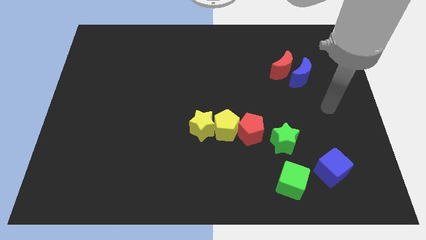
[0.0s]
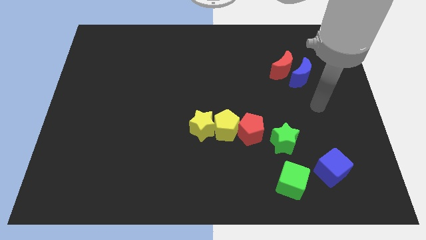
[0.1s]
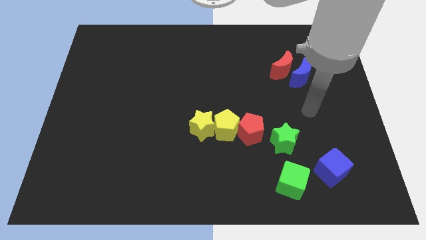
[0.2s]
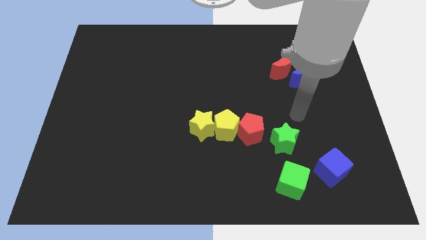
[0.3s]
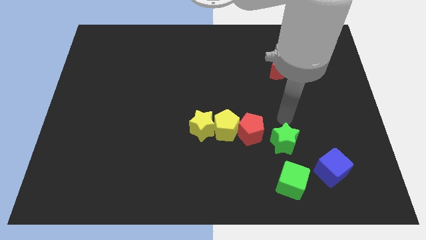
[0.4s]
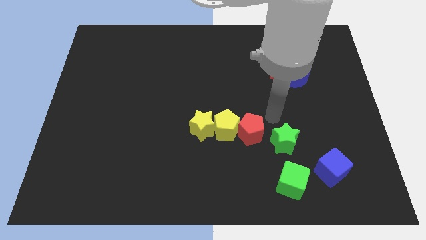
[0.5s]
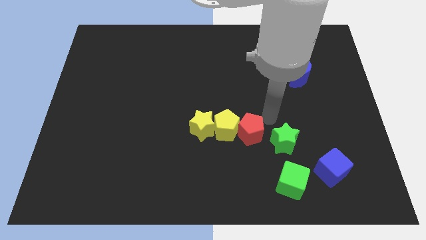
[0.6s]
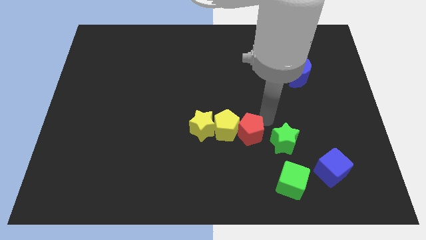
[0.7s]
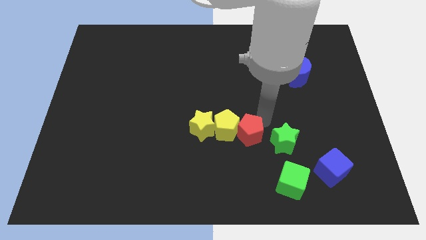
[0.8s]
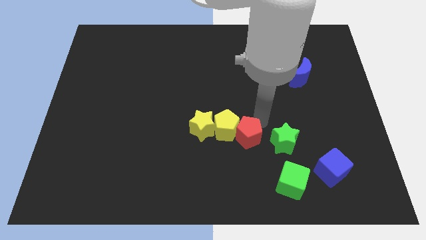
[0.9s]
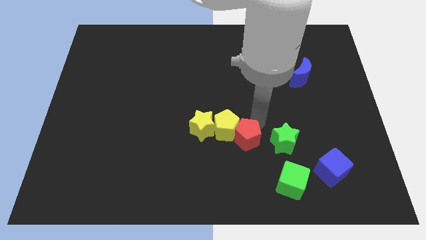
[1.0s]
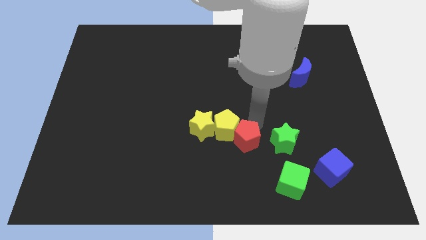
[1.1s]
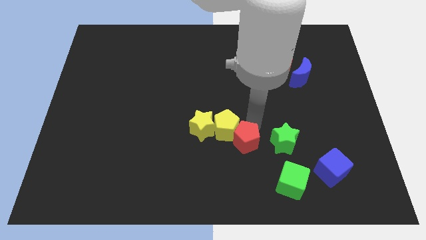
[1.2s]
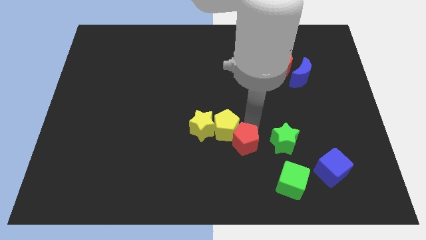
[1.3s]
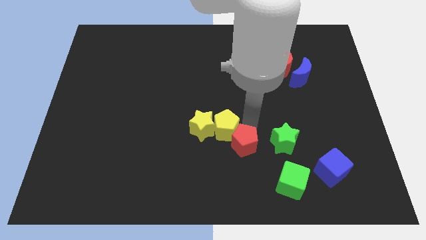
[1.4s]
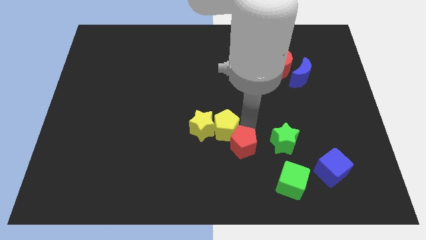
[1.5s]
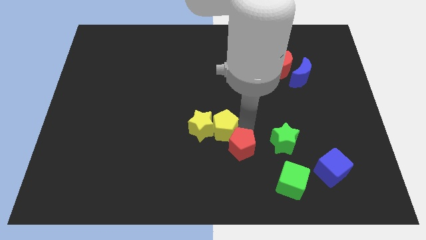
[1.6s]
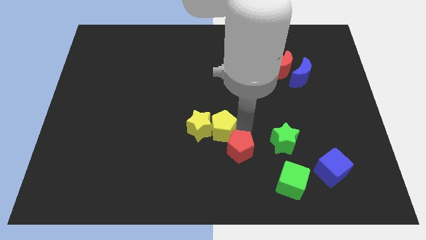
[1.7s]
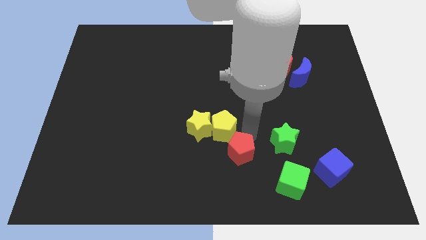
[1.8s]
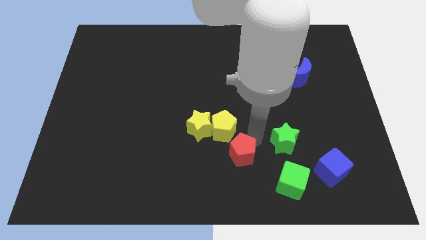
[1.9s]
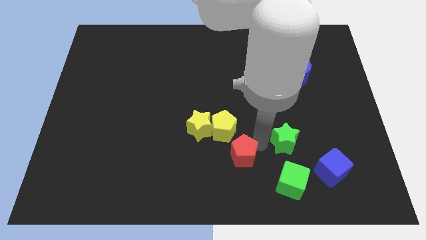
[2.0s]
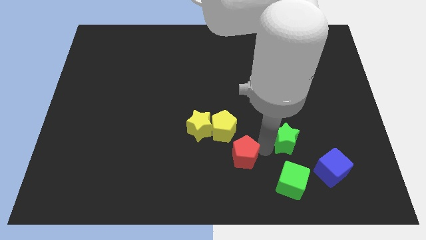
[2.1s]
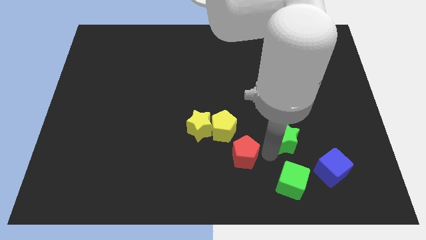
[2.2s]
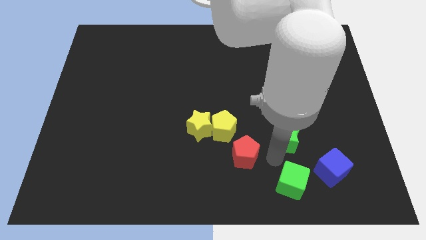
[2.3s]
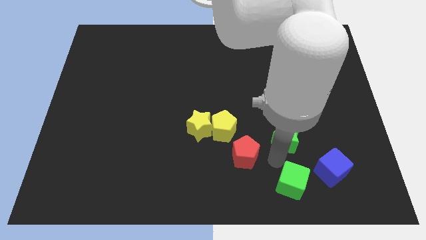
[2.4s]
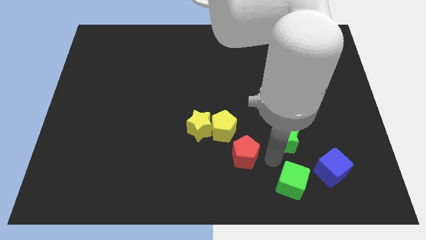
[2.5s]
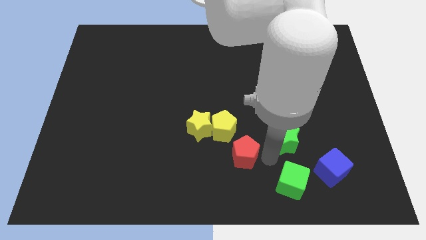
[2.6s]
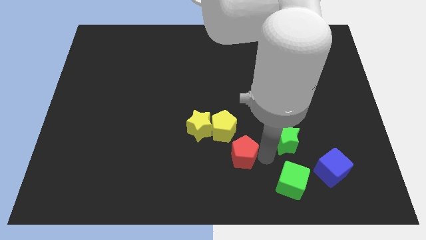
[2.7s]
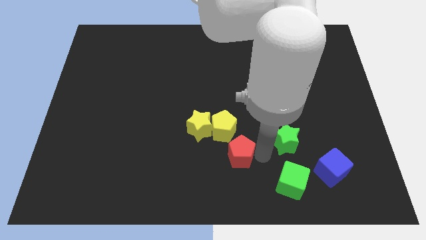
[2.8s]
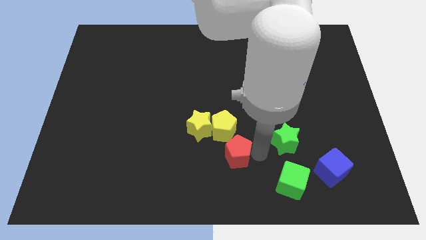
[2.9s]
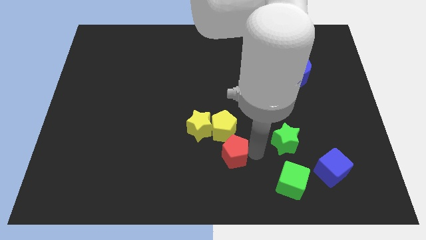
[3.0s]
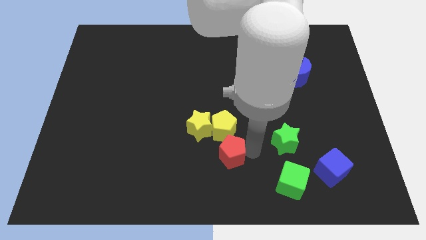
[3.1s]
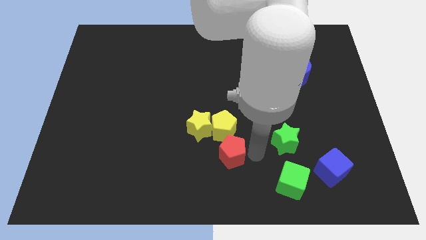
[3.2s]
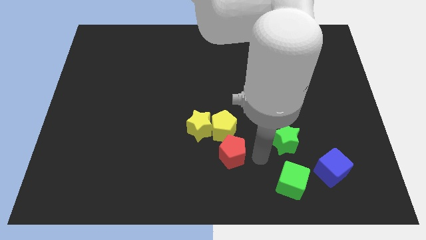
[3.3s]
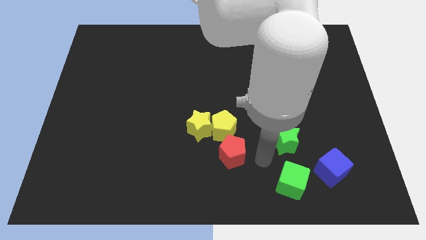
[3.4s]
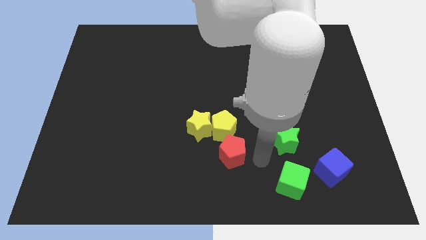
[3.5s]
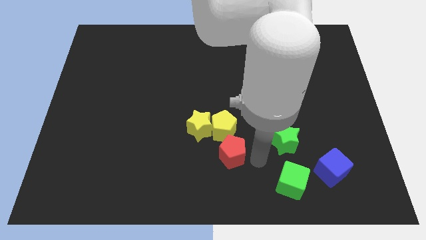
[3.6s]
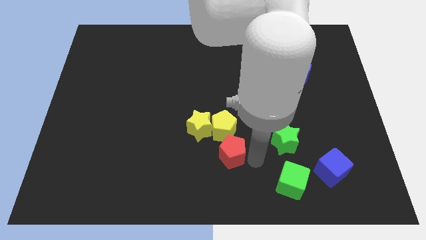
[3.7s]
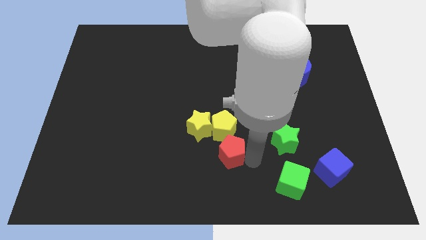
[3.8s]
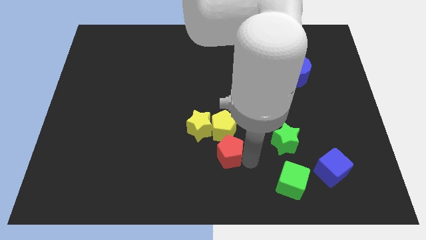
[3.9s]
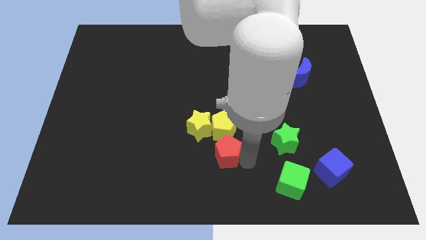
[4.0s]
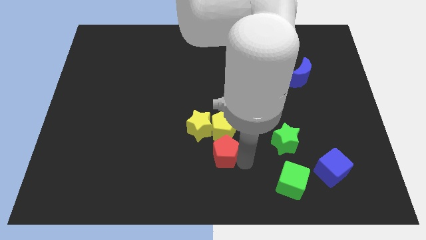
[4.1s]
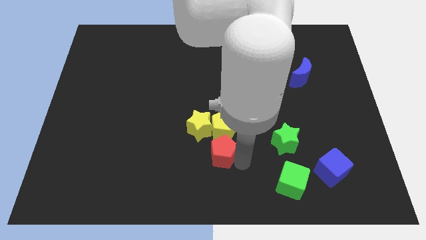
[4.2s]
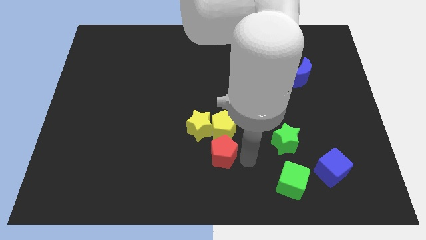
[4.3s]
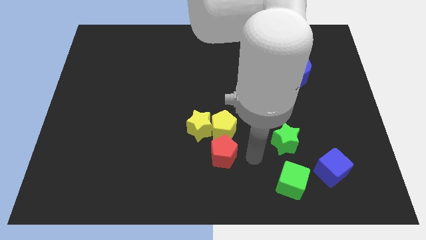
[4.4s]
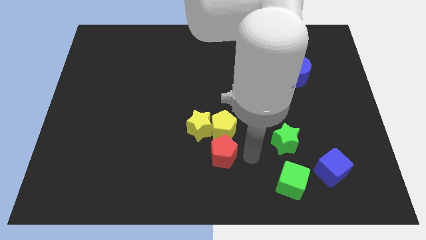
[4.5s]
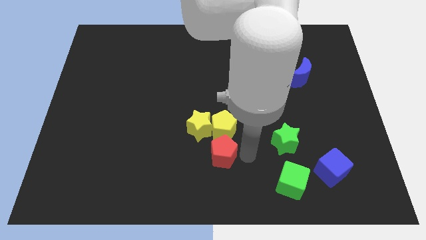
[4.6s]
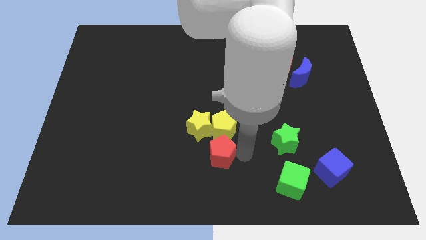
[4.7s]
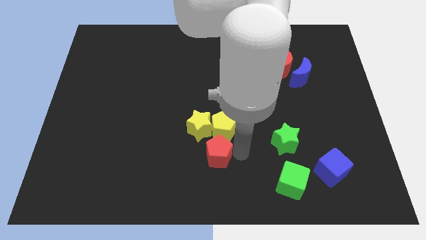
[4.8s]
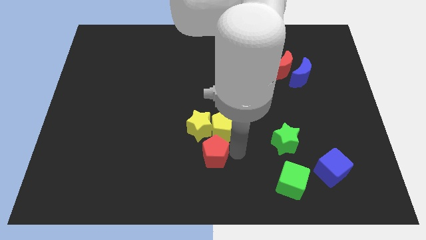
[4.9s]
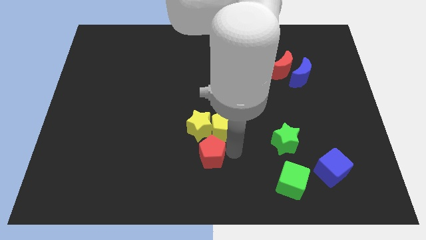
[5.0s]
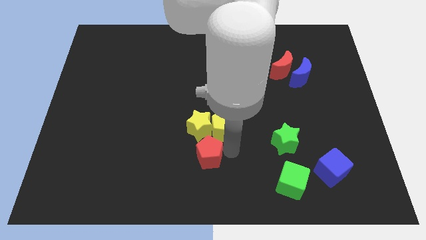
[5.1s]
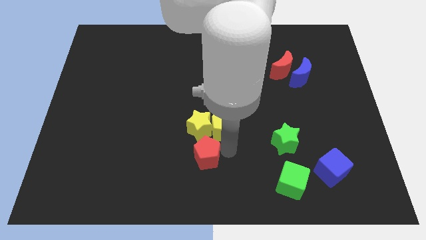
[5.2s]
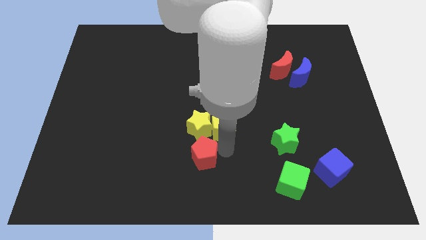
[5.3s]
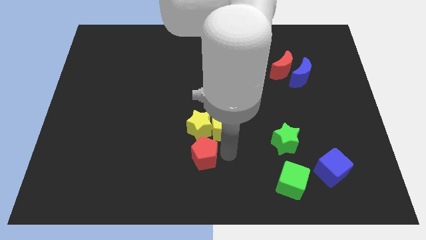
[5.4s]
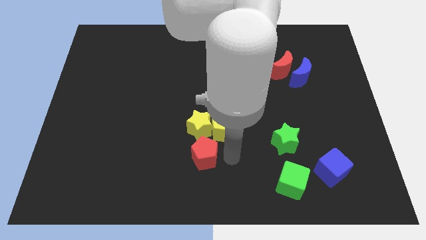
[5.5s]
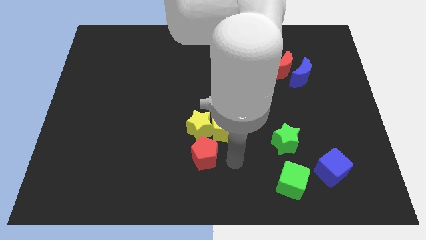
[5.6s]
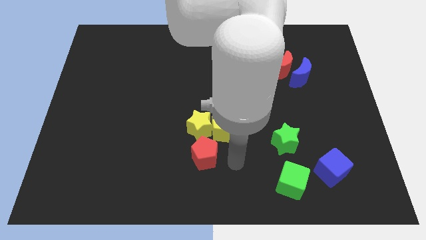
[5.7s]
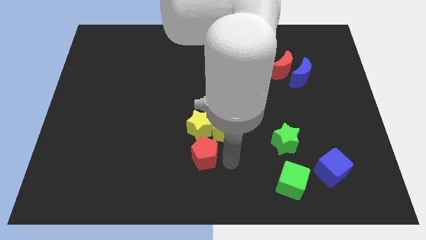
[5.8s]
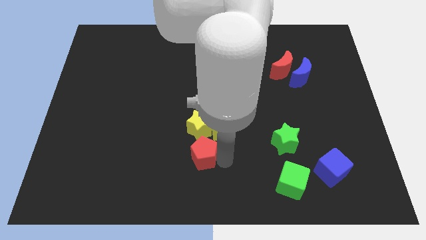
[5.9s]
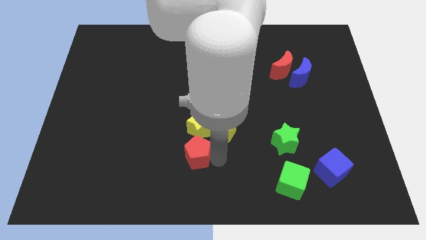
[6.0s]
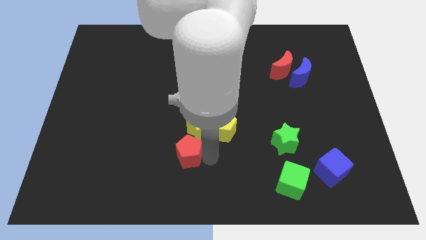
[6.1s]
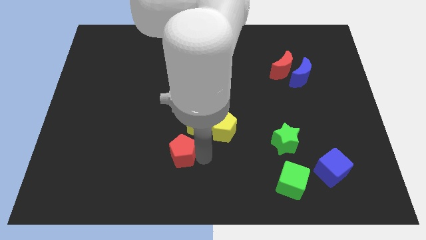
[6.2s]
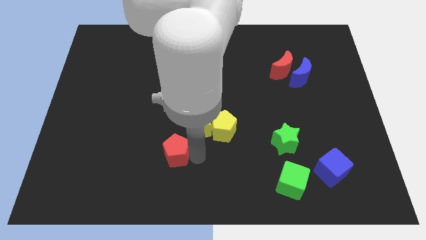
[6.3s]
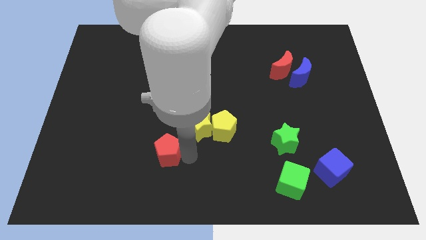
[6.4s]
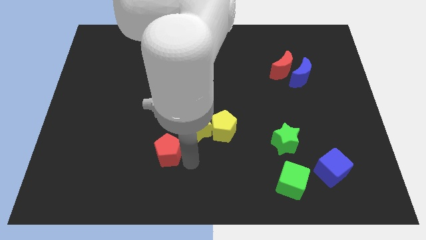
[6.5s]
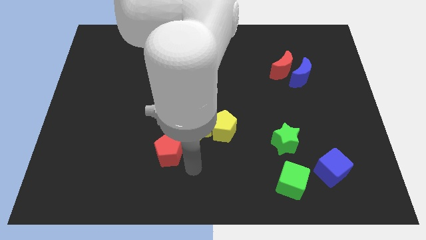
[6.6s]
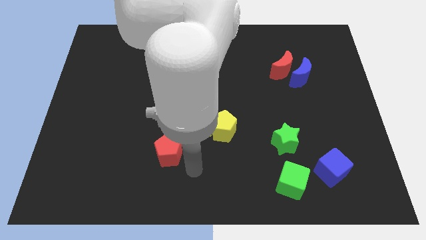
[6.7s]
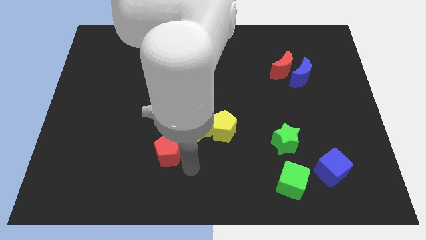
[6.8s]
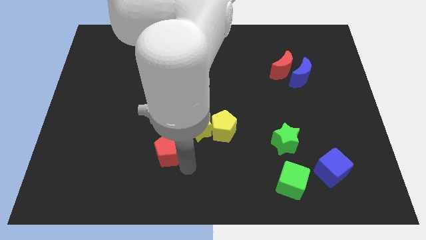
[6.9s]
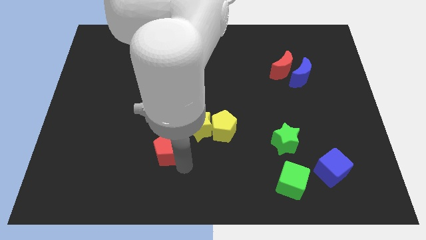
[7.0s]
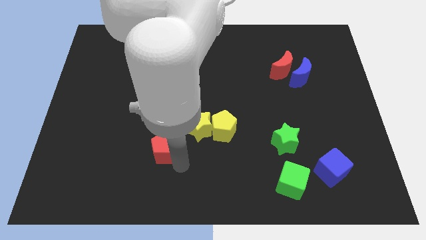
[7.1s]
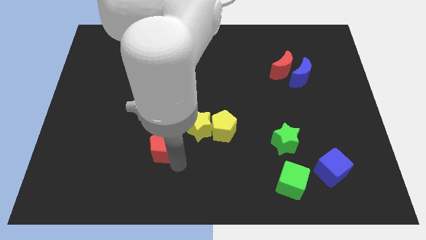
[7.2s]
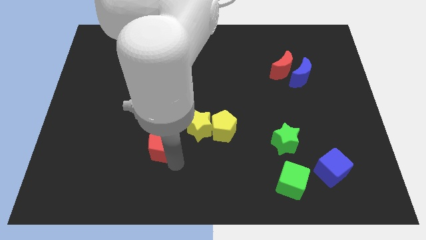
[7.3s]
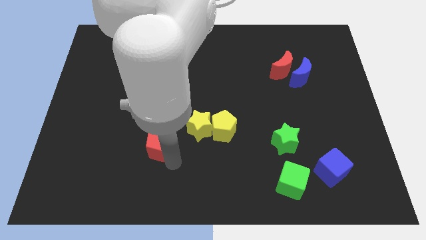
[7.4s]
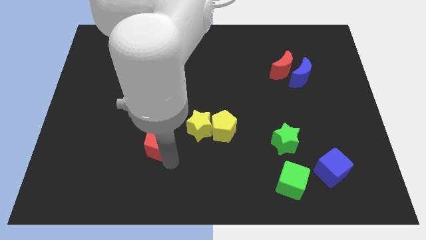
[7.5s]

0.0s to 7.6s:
move the red pentagon to the left

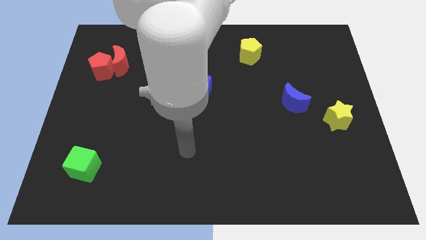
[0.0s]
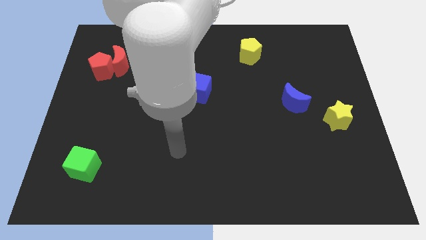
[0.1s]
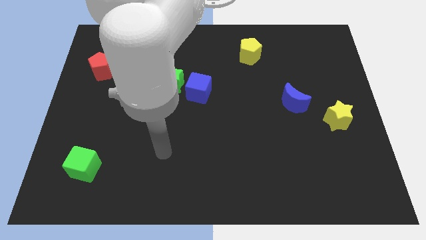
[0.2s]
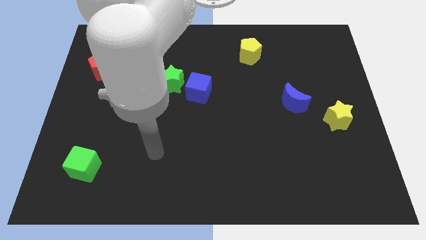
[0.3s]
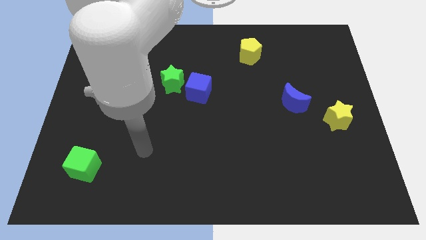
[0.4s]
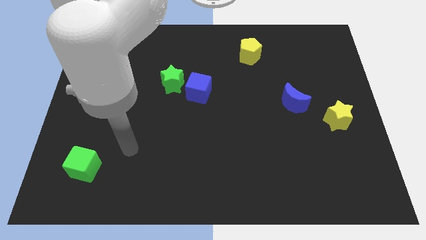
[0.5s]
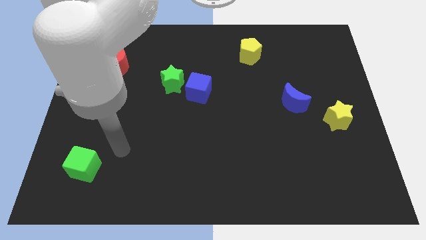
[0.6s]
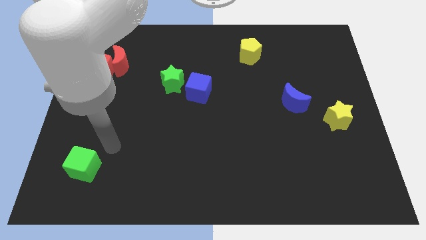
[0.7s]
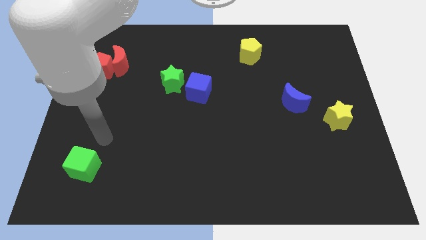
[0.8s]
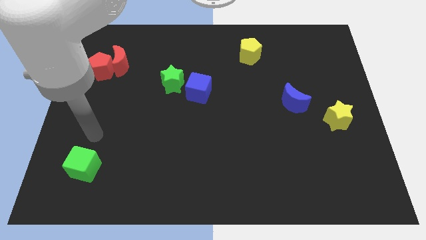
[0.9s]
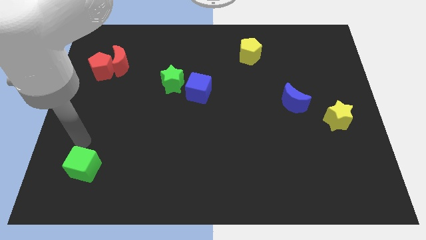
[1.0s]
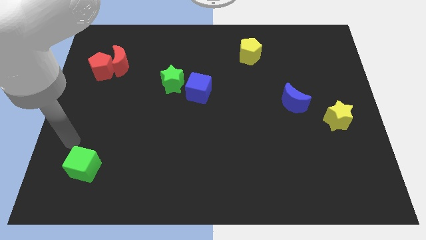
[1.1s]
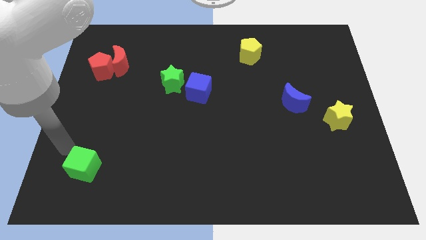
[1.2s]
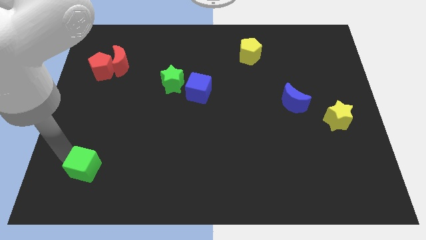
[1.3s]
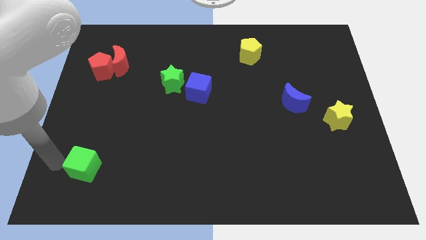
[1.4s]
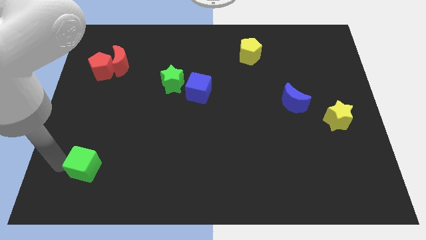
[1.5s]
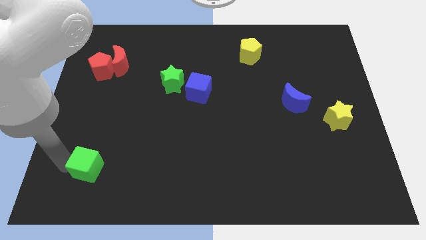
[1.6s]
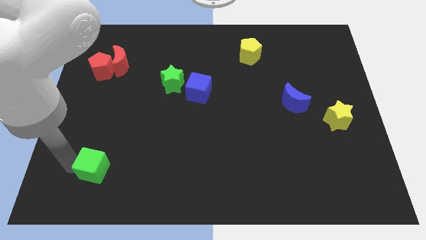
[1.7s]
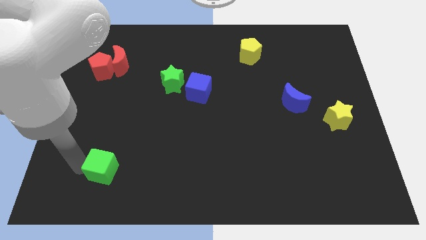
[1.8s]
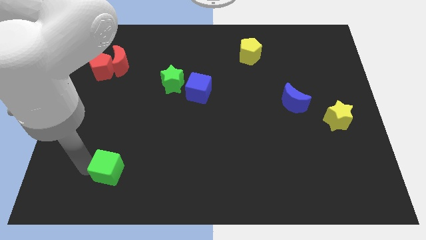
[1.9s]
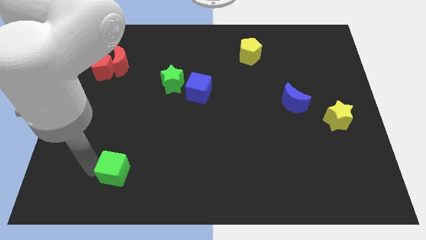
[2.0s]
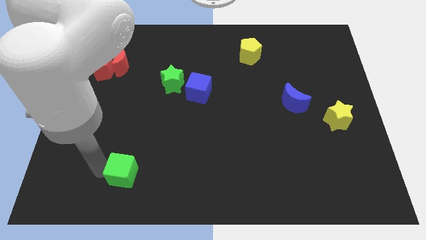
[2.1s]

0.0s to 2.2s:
slide the green cube a little to the right
